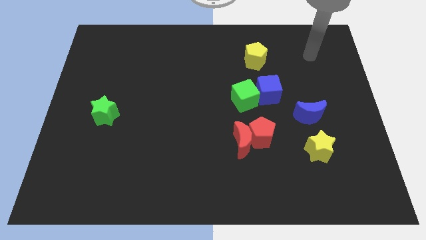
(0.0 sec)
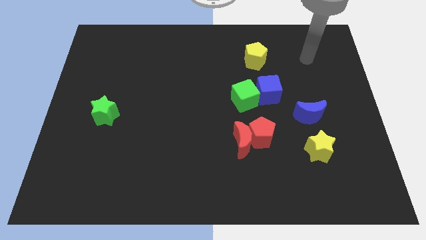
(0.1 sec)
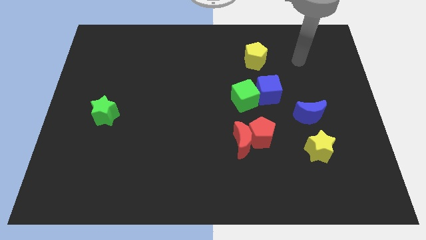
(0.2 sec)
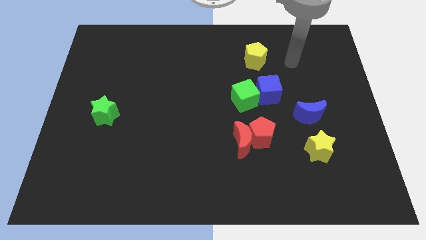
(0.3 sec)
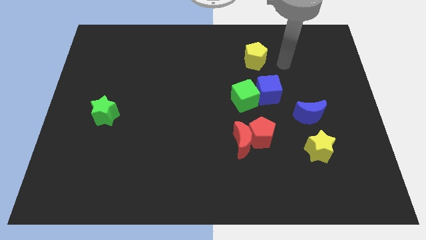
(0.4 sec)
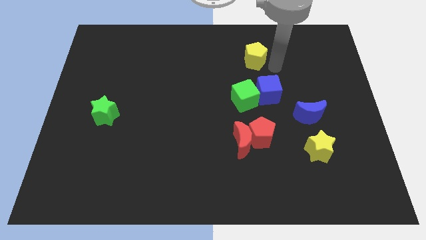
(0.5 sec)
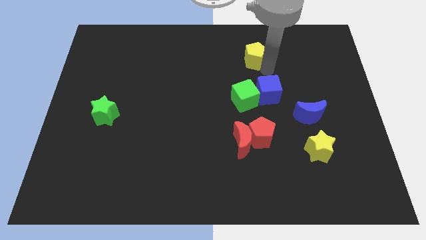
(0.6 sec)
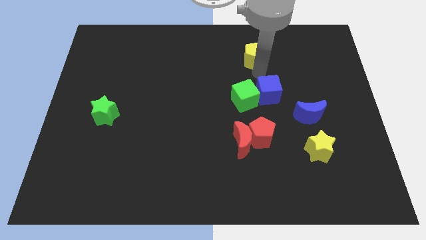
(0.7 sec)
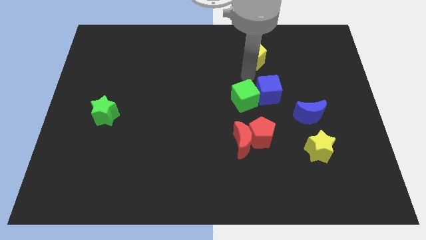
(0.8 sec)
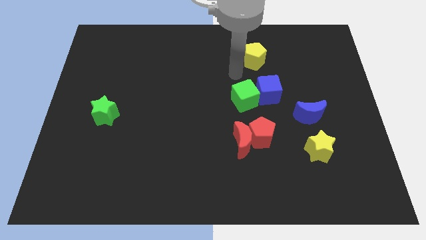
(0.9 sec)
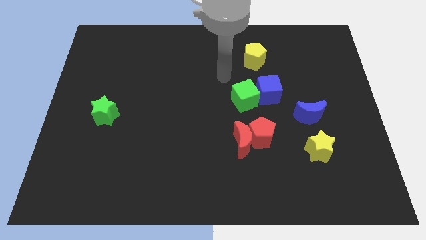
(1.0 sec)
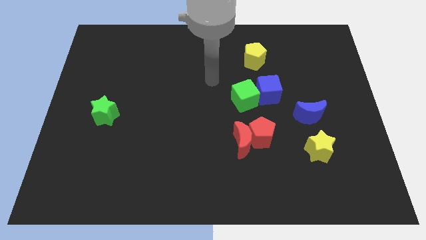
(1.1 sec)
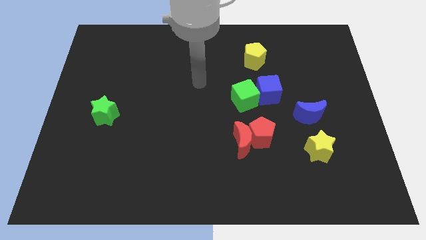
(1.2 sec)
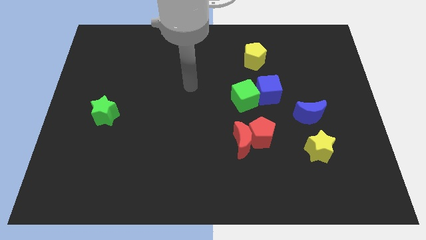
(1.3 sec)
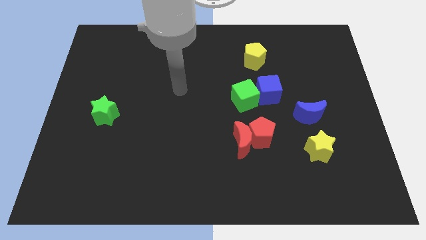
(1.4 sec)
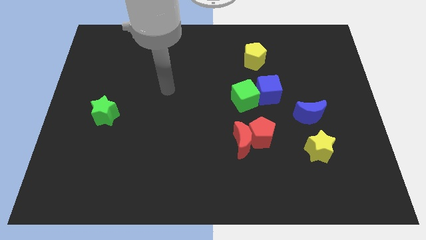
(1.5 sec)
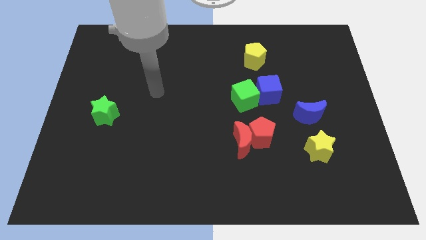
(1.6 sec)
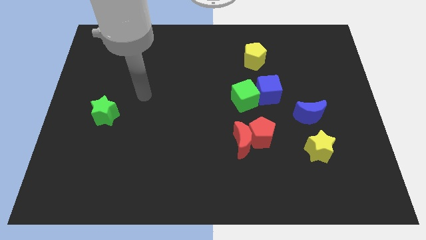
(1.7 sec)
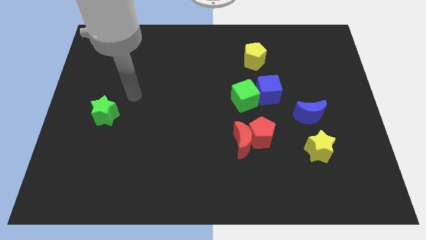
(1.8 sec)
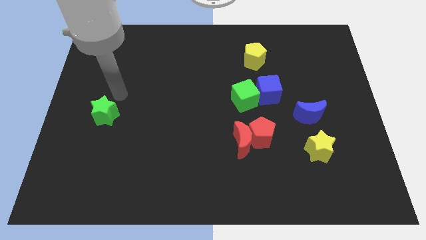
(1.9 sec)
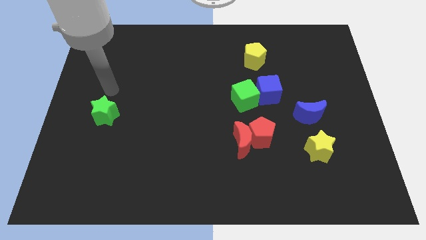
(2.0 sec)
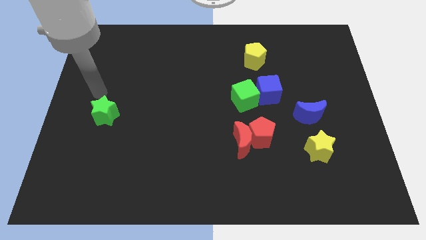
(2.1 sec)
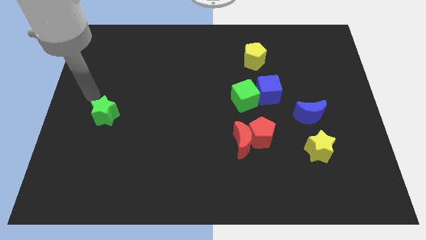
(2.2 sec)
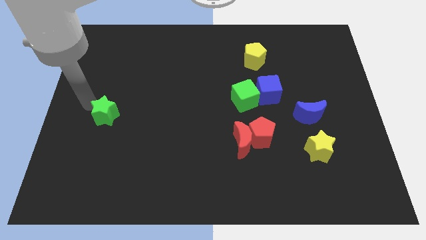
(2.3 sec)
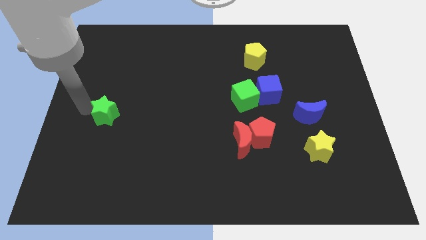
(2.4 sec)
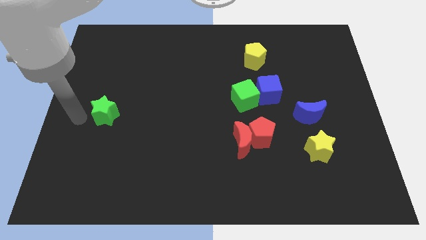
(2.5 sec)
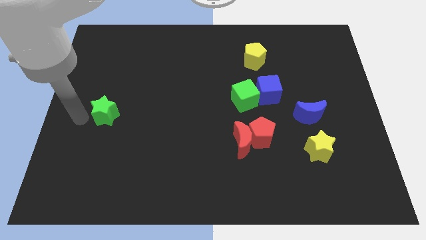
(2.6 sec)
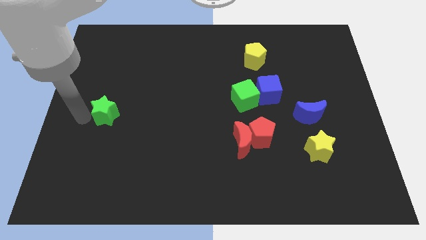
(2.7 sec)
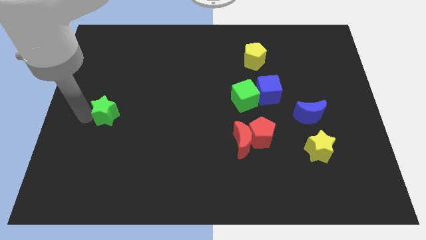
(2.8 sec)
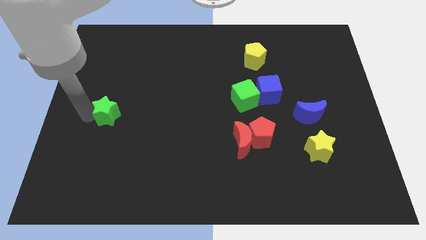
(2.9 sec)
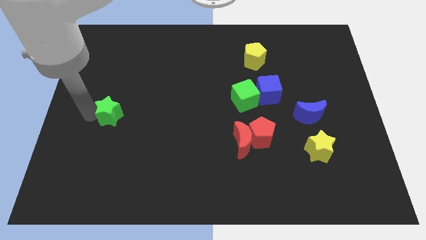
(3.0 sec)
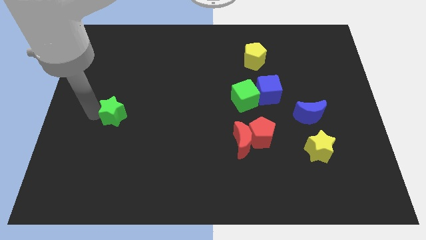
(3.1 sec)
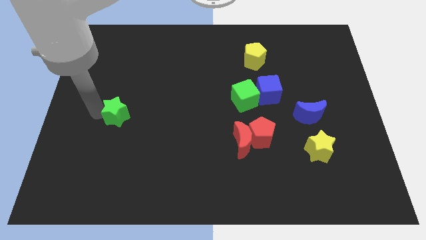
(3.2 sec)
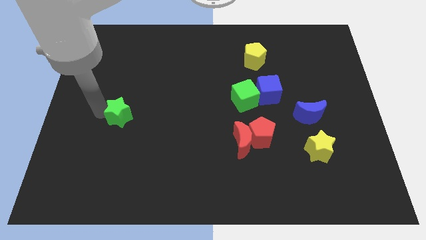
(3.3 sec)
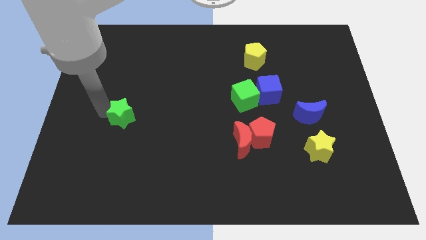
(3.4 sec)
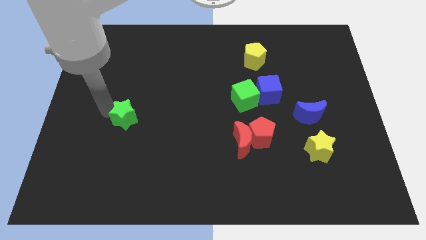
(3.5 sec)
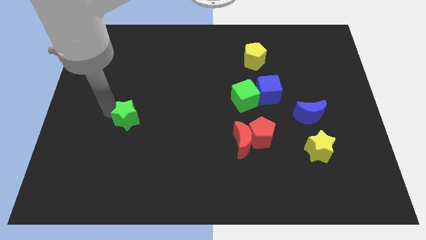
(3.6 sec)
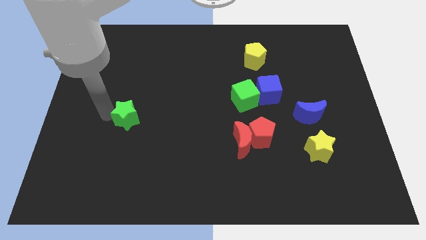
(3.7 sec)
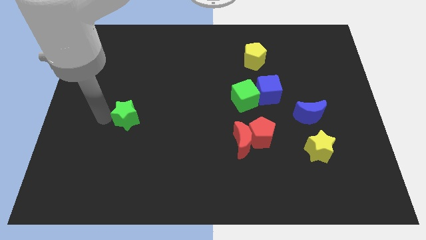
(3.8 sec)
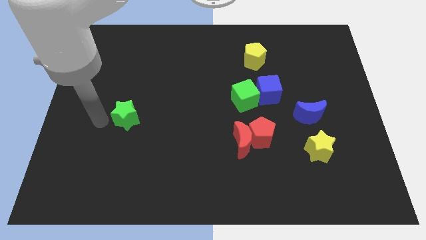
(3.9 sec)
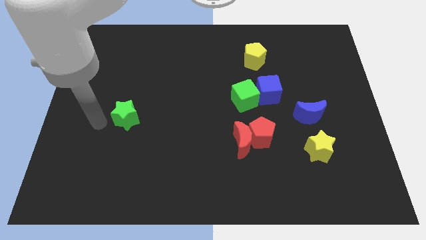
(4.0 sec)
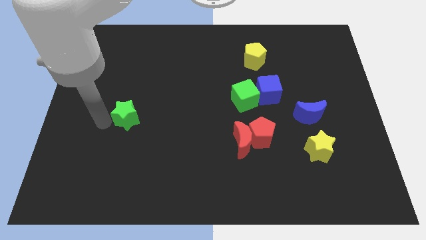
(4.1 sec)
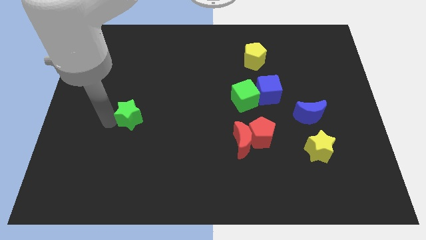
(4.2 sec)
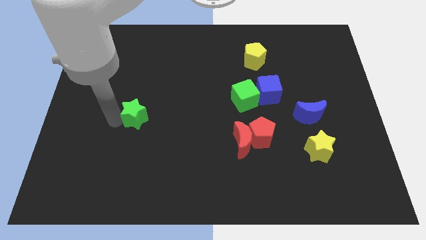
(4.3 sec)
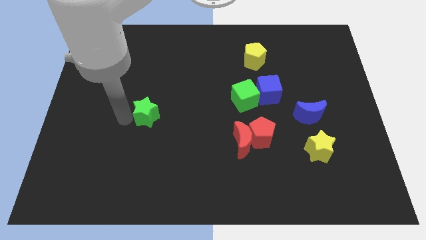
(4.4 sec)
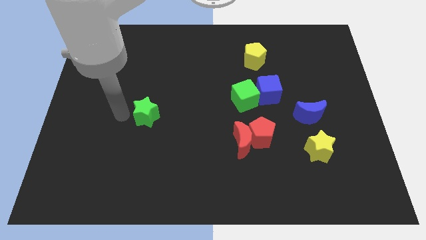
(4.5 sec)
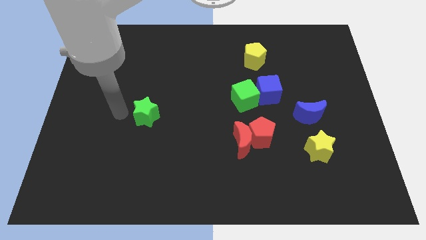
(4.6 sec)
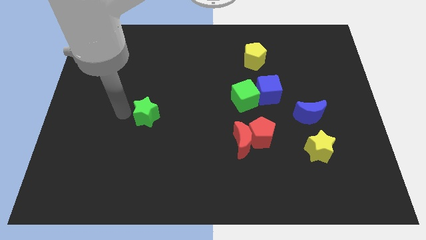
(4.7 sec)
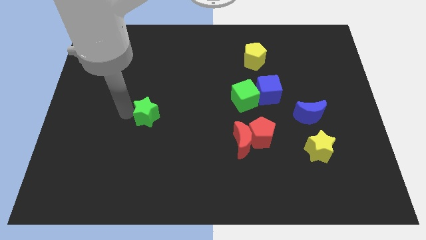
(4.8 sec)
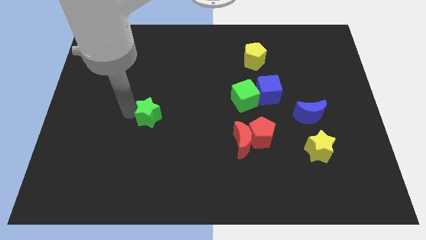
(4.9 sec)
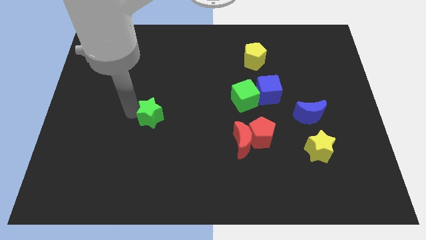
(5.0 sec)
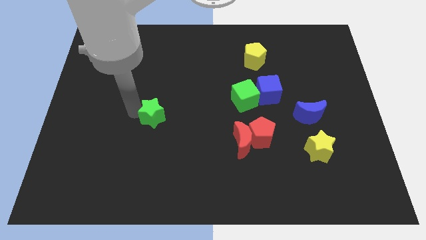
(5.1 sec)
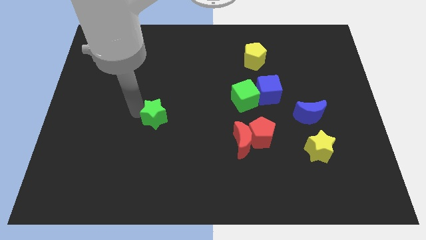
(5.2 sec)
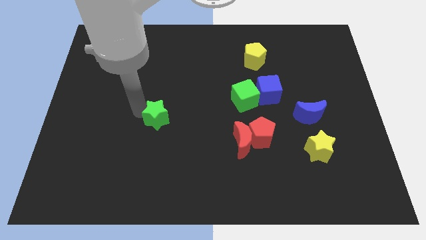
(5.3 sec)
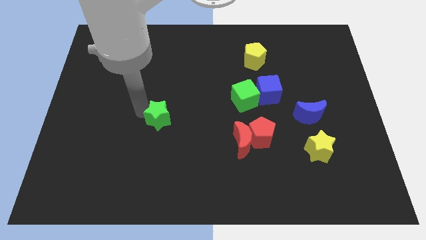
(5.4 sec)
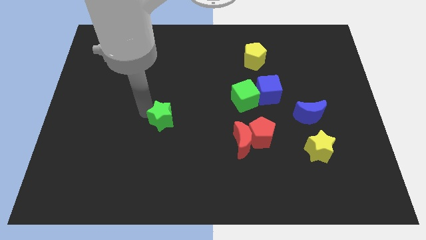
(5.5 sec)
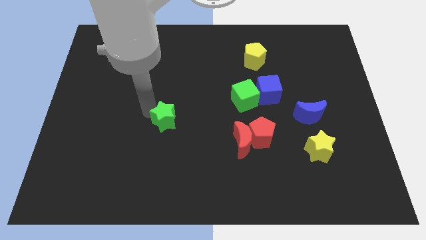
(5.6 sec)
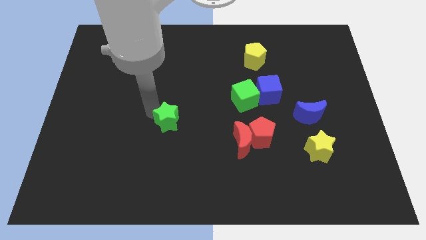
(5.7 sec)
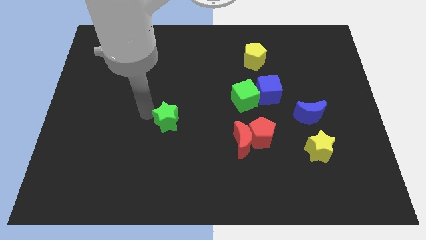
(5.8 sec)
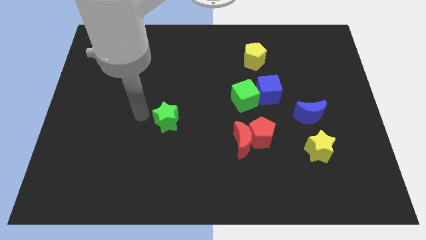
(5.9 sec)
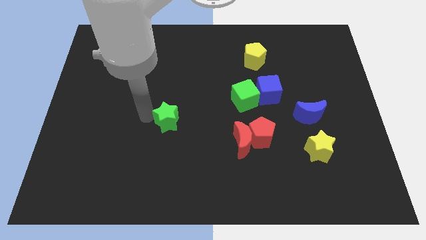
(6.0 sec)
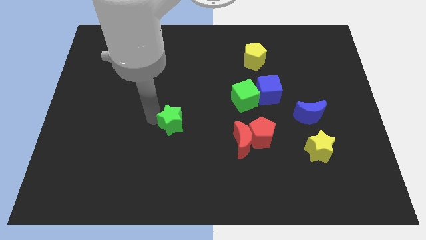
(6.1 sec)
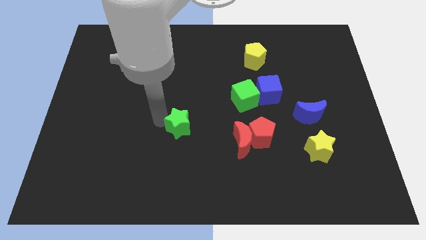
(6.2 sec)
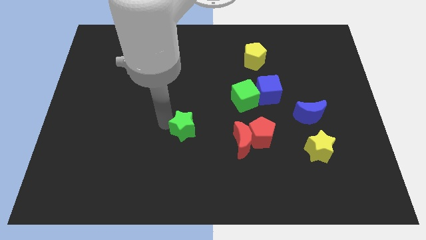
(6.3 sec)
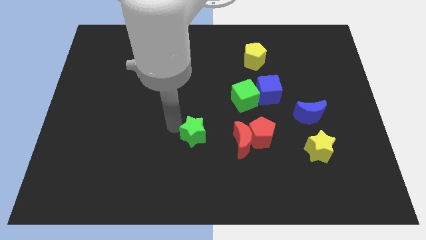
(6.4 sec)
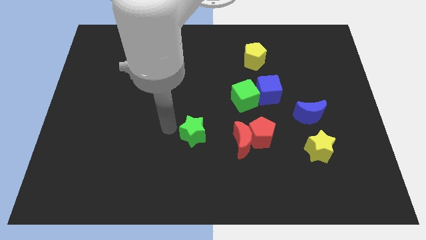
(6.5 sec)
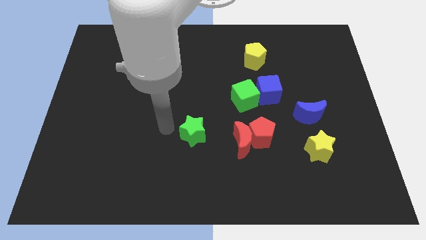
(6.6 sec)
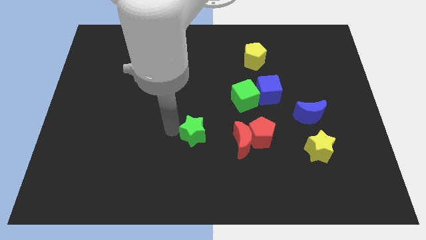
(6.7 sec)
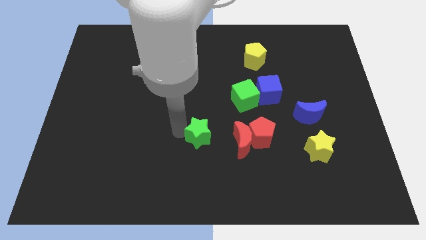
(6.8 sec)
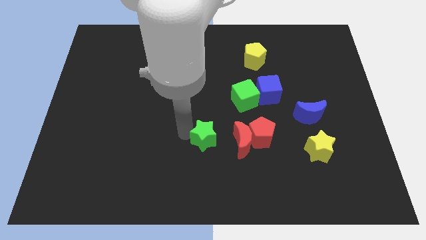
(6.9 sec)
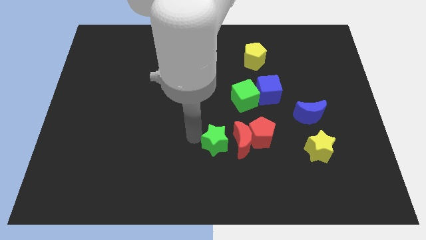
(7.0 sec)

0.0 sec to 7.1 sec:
put the green star to the red moon
